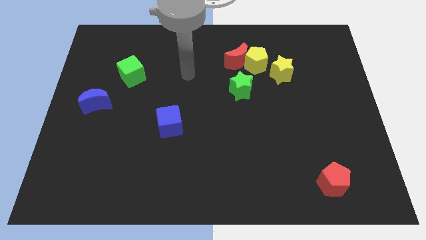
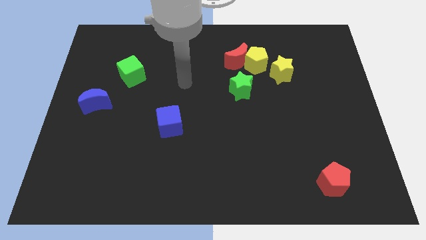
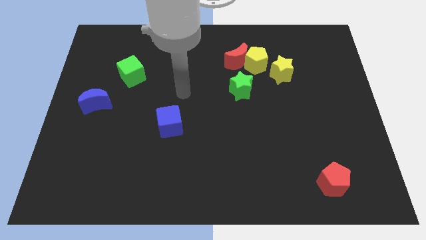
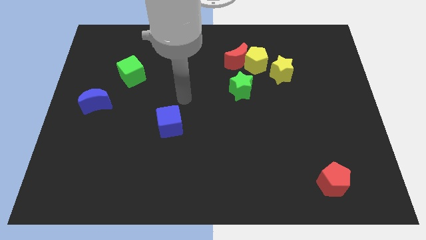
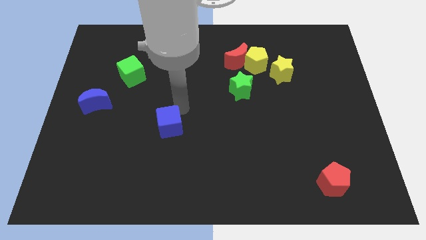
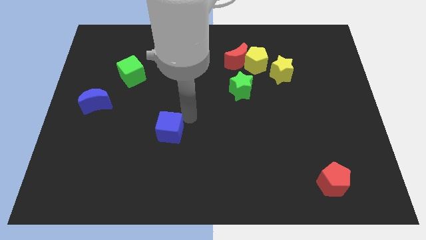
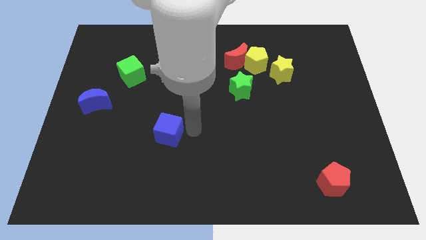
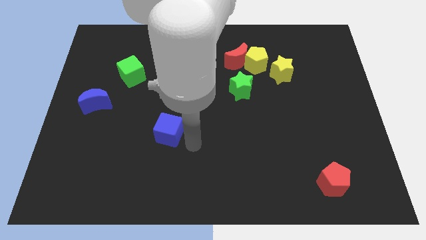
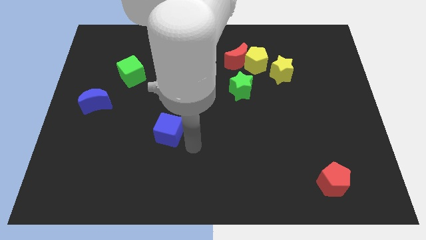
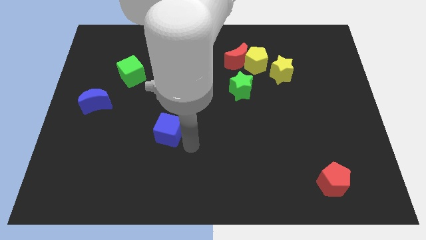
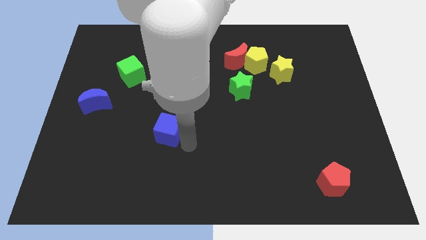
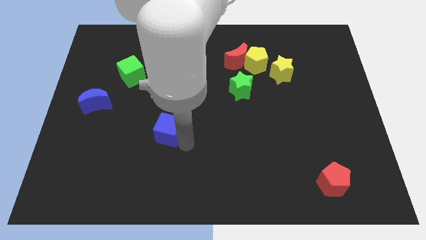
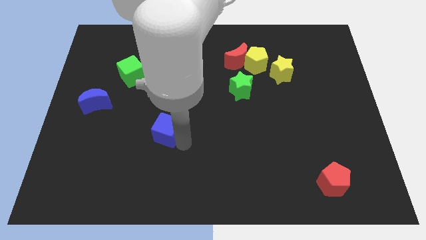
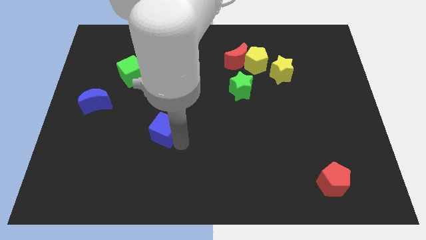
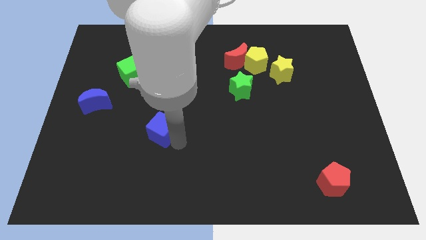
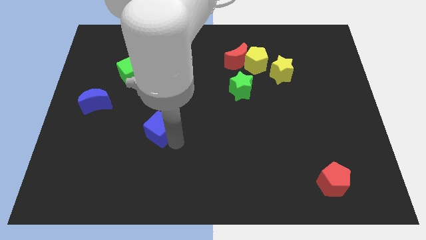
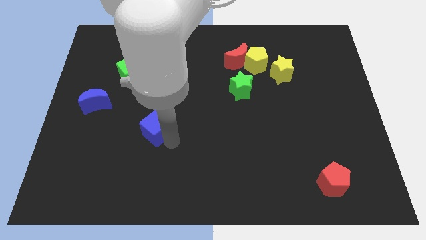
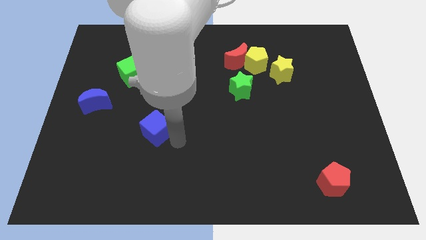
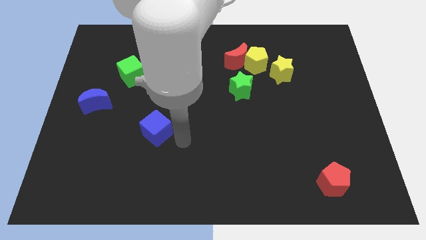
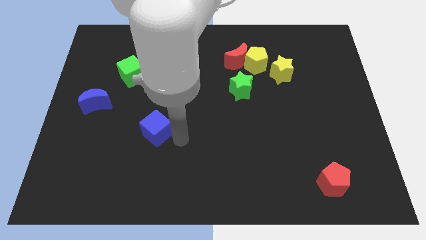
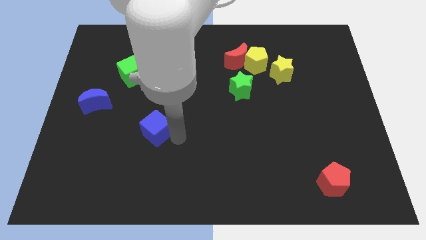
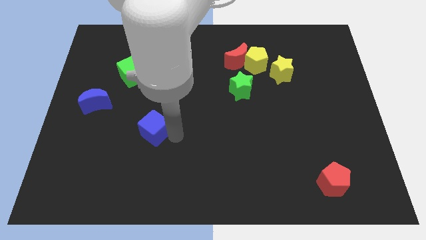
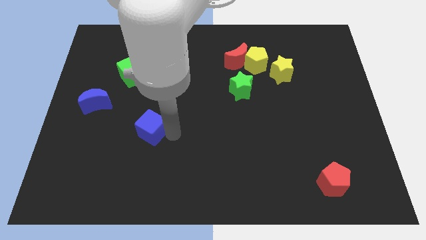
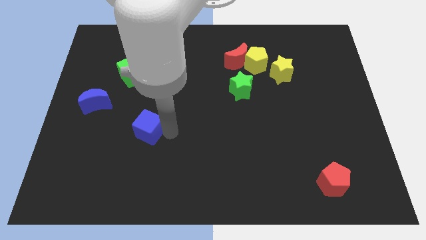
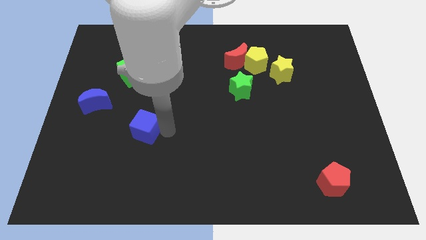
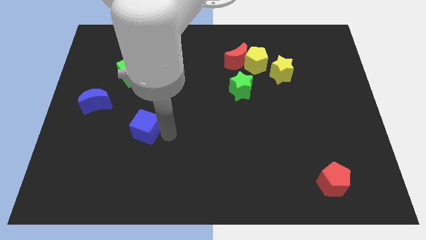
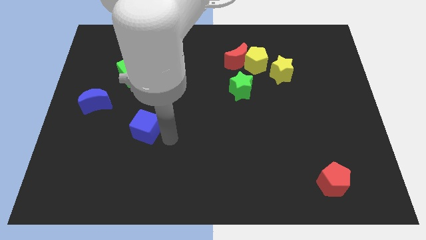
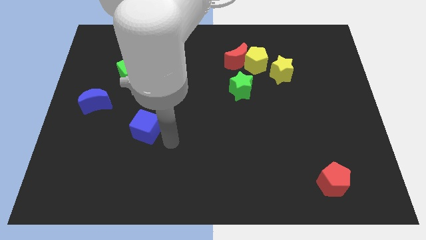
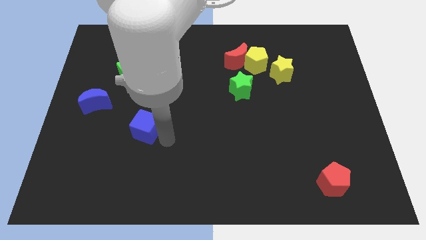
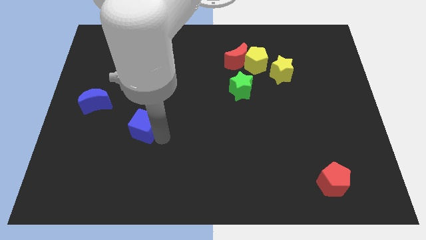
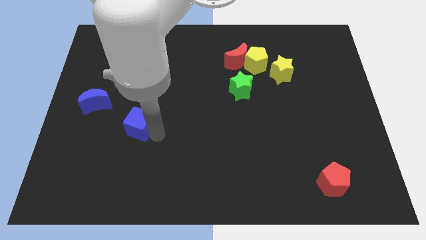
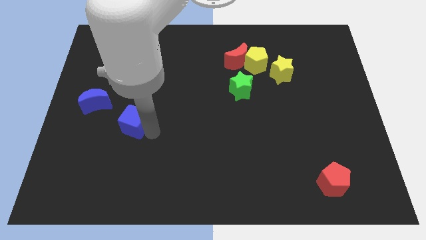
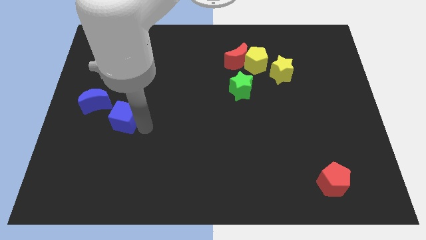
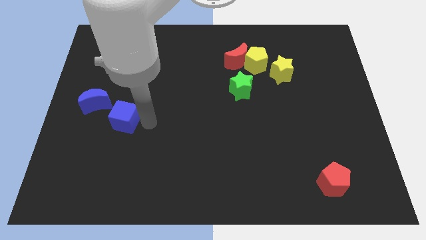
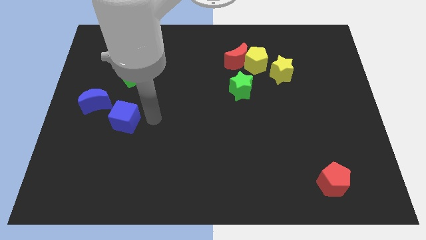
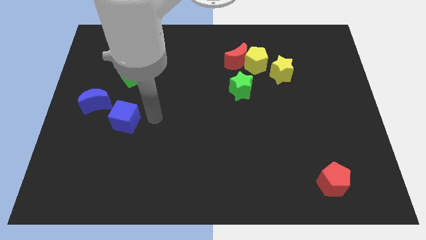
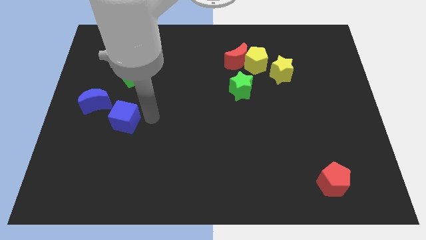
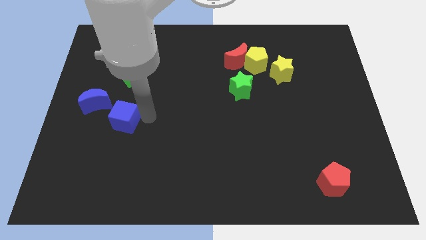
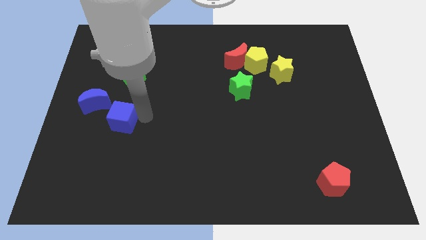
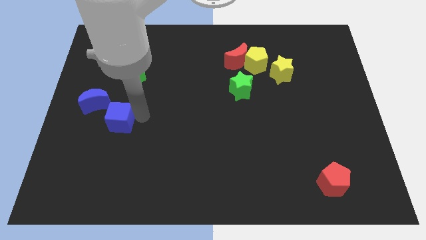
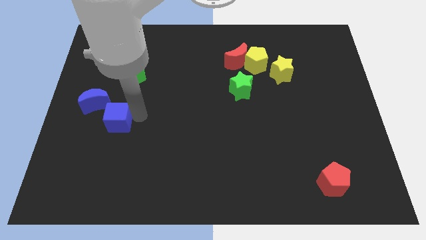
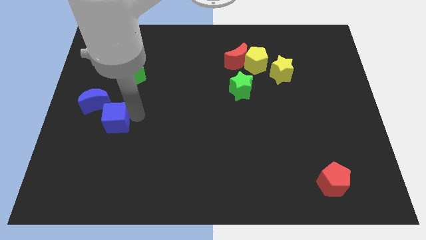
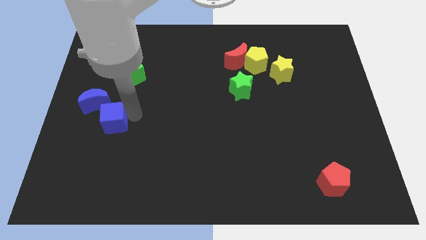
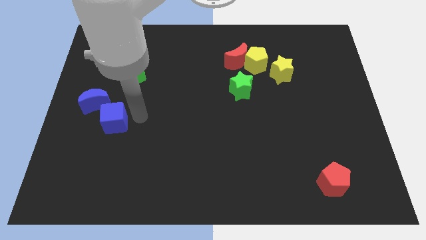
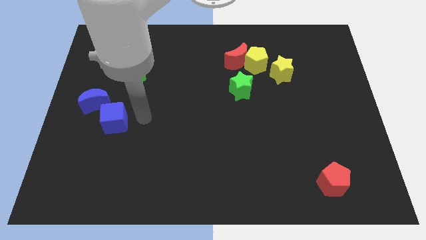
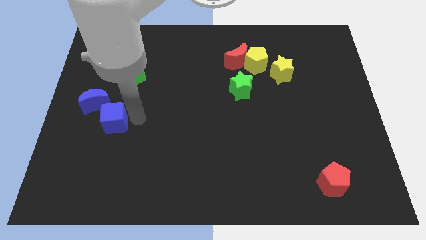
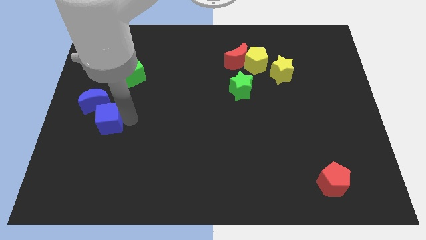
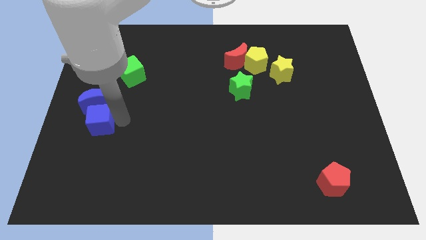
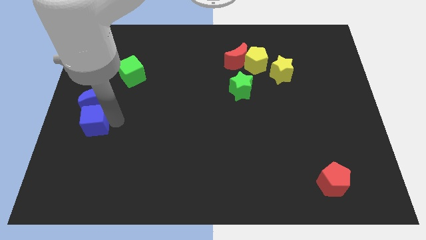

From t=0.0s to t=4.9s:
put the blue cube to the left side

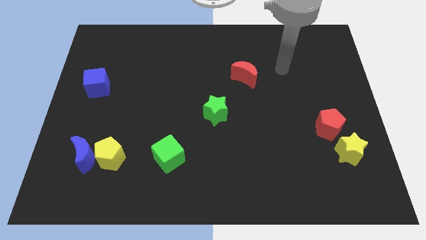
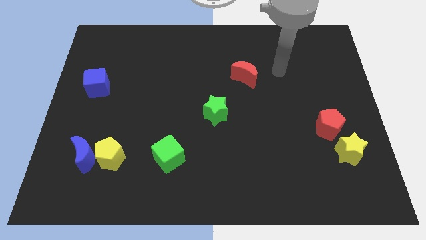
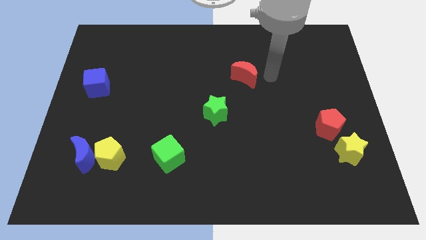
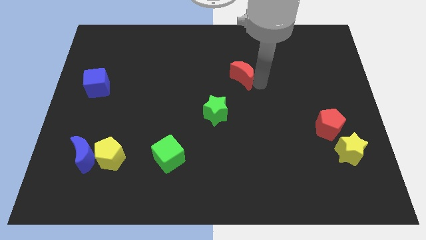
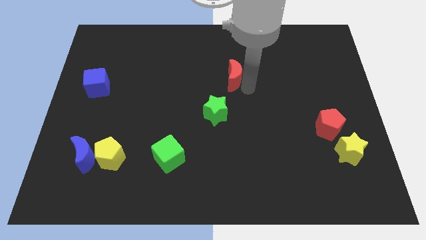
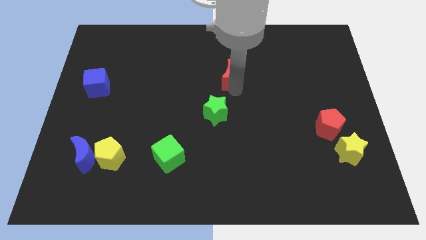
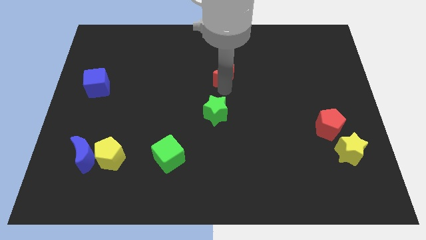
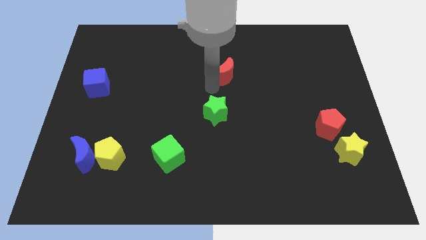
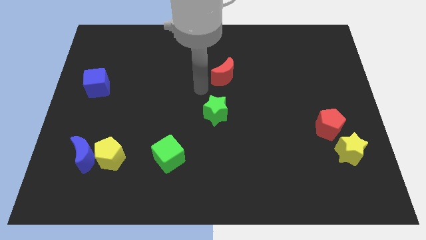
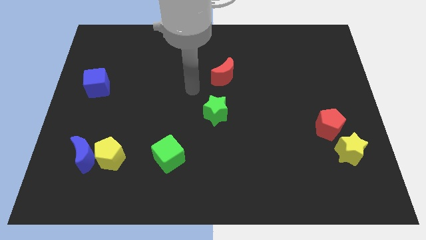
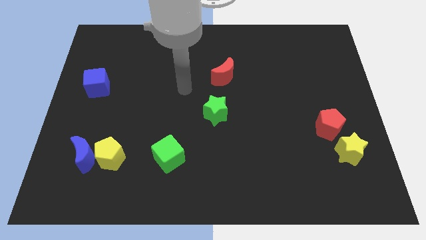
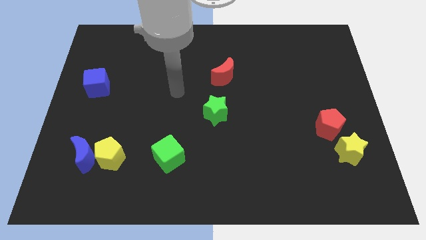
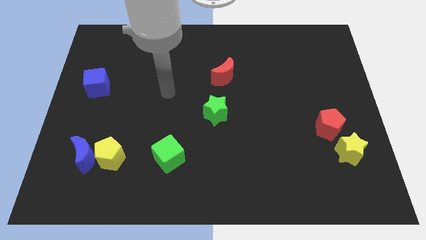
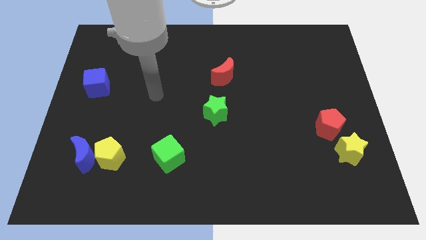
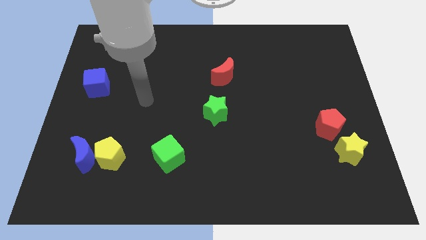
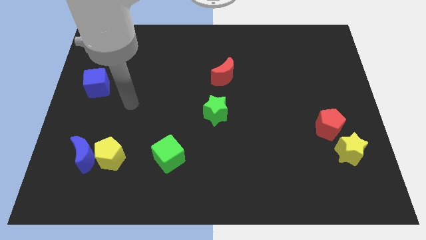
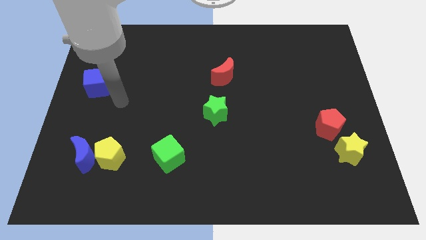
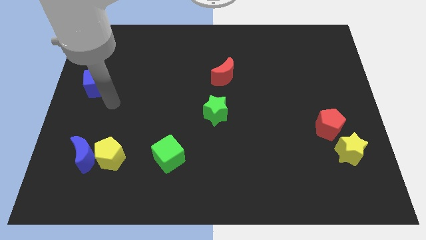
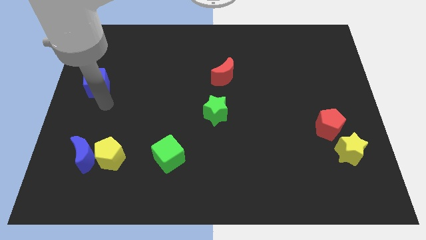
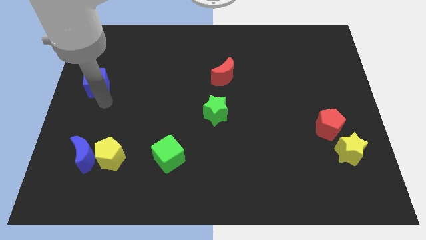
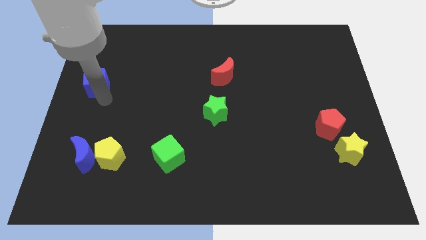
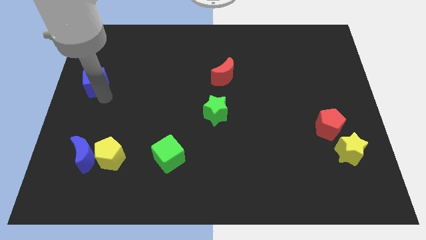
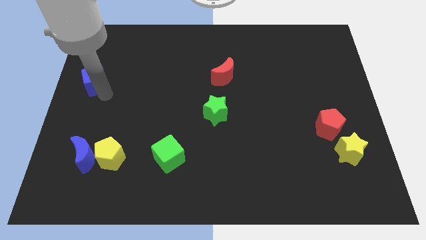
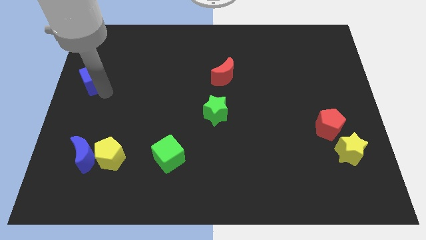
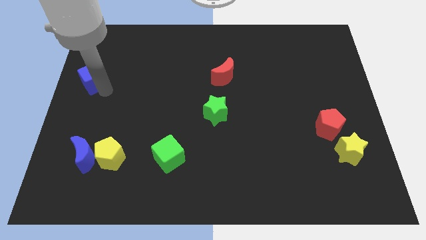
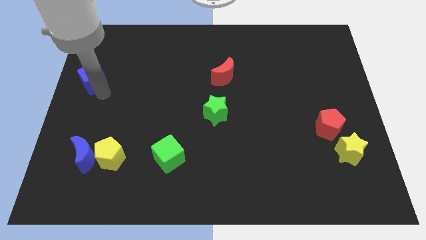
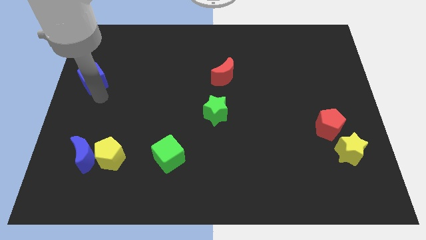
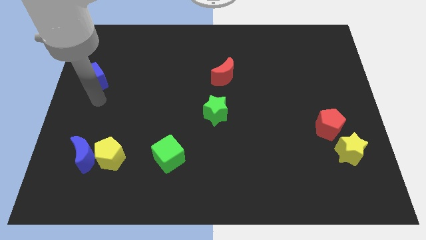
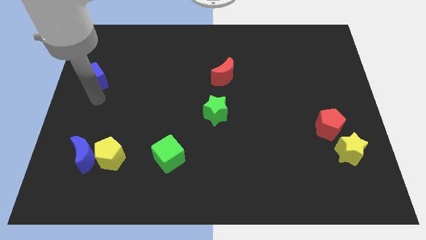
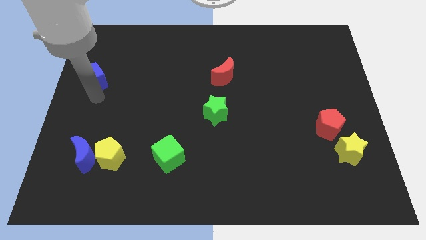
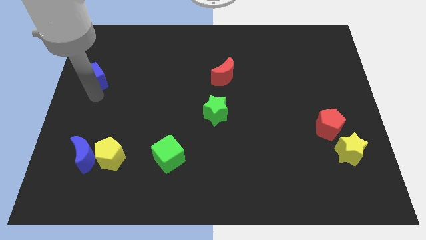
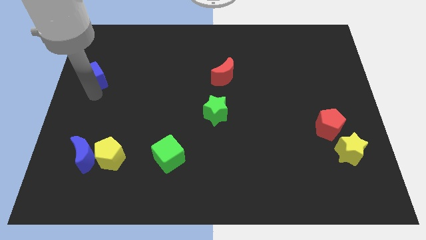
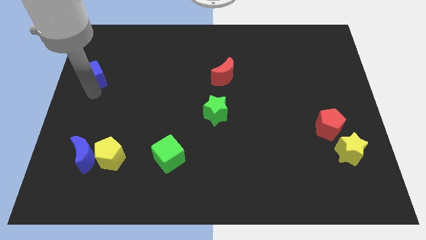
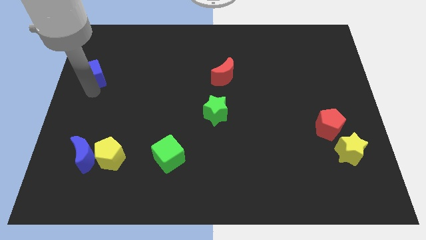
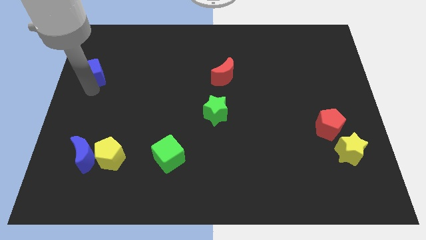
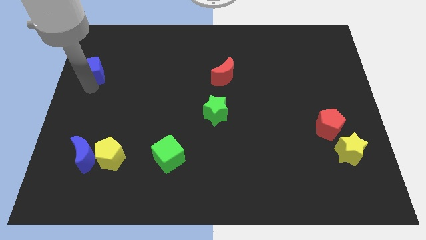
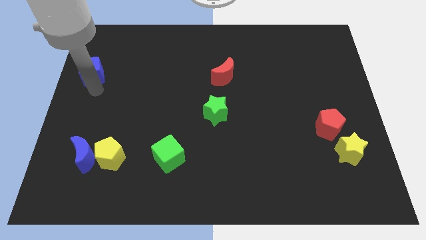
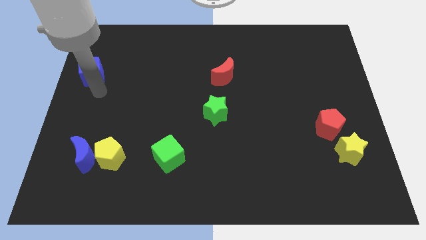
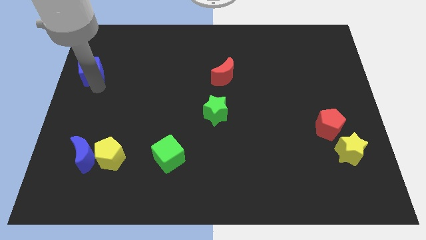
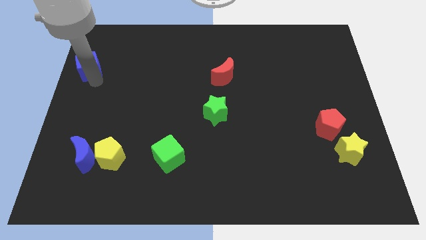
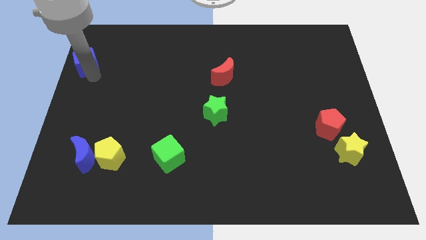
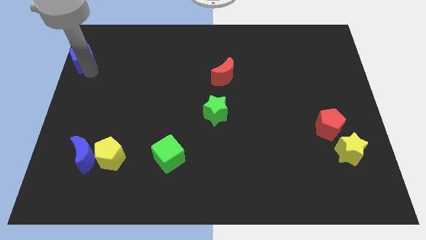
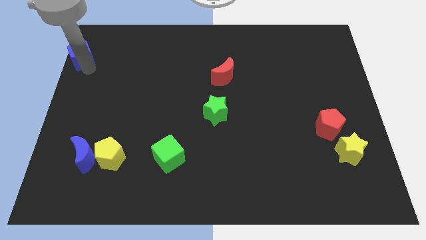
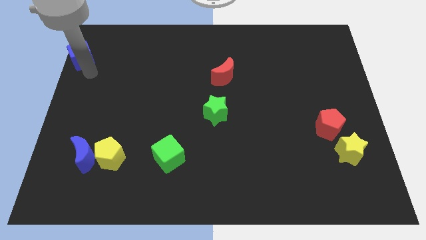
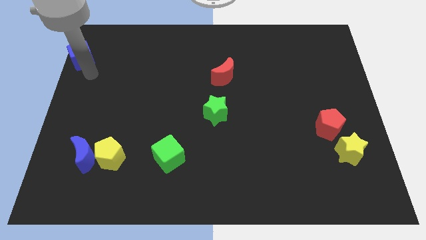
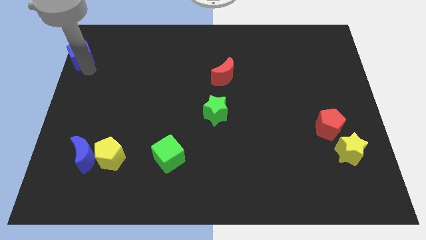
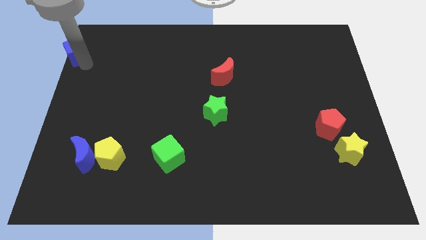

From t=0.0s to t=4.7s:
move the blue cube to the top left of the board
